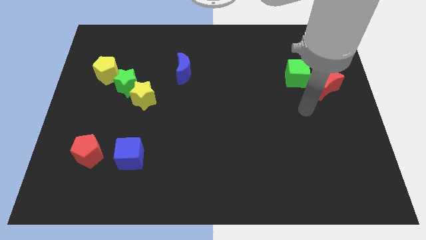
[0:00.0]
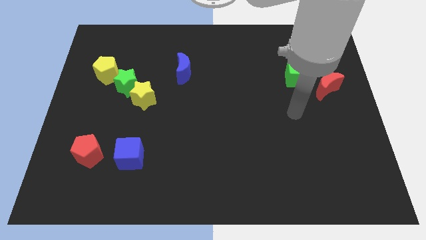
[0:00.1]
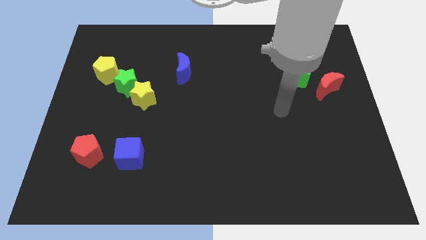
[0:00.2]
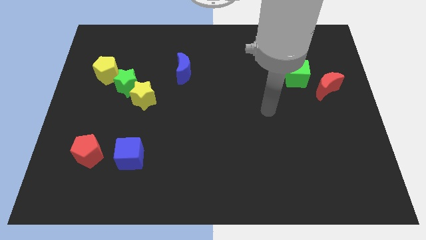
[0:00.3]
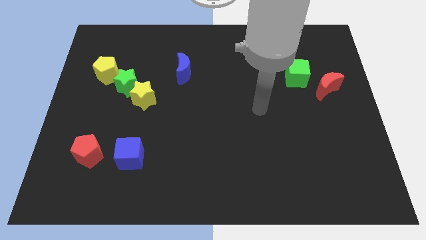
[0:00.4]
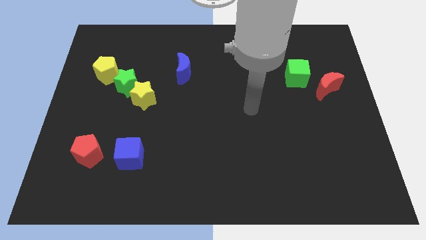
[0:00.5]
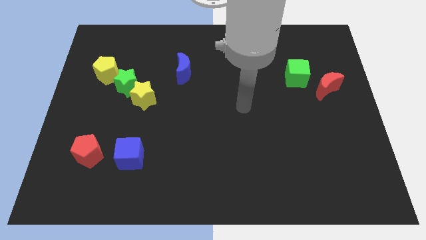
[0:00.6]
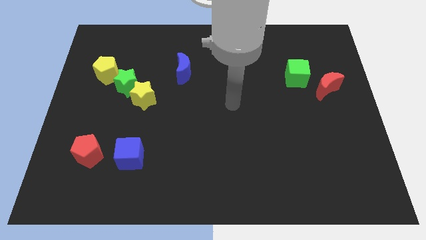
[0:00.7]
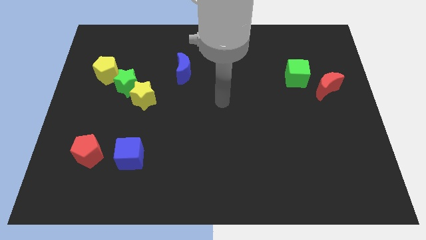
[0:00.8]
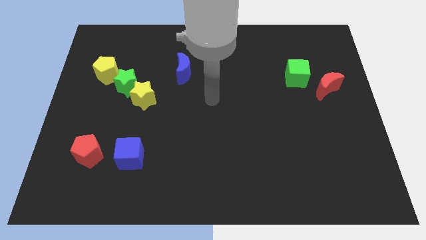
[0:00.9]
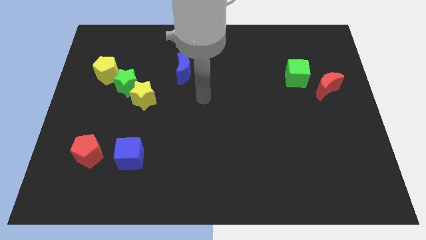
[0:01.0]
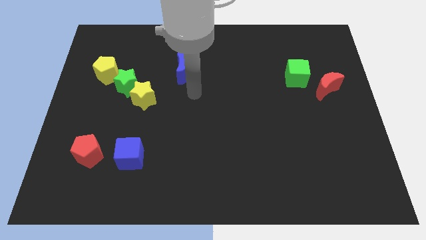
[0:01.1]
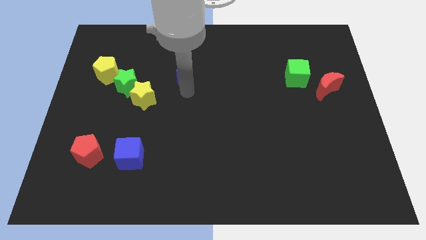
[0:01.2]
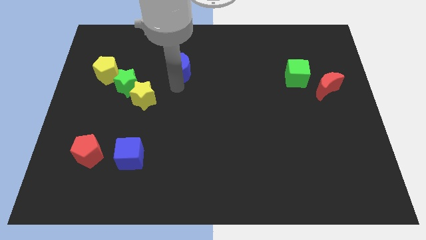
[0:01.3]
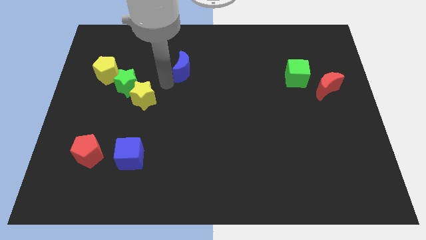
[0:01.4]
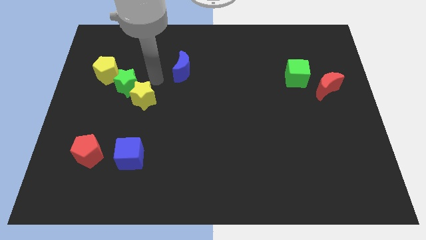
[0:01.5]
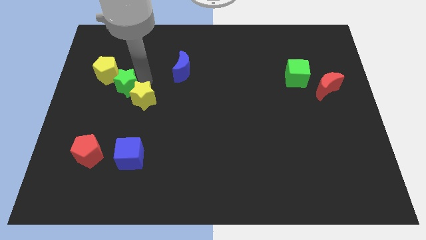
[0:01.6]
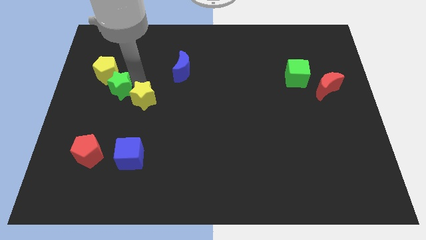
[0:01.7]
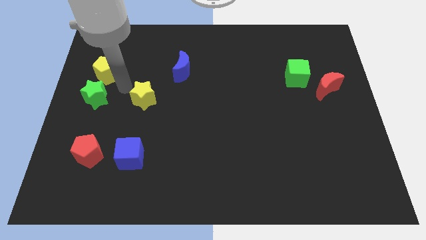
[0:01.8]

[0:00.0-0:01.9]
separate the yellow star from the green star

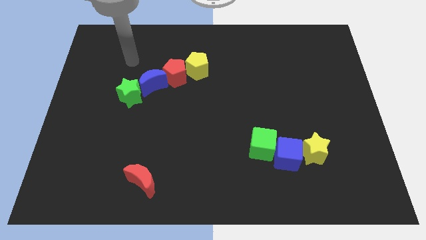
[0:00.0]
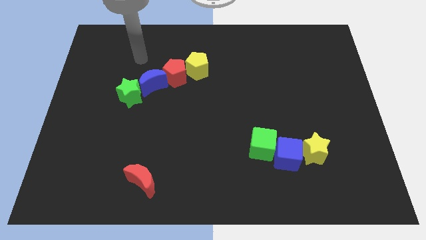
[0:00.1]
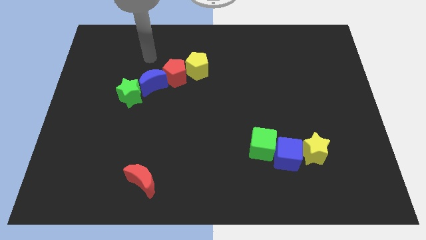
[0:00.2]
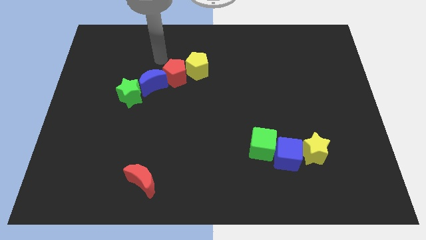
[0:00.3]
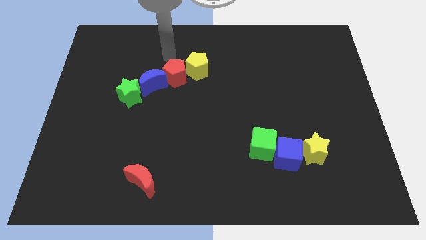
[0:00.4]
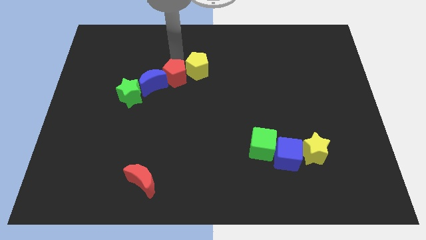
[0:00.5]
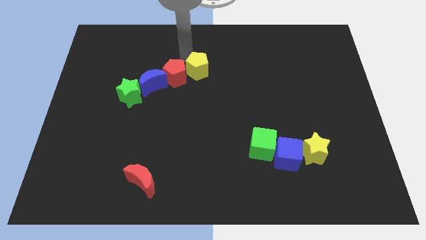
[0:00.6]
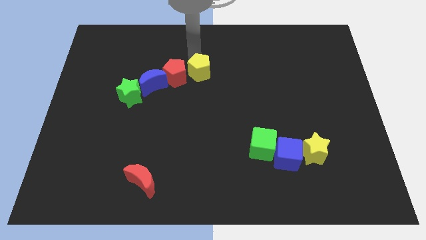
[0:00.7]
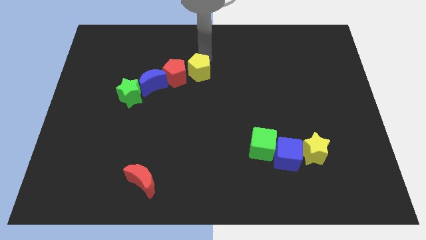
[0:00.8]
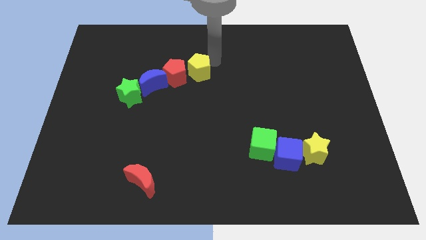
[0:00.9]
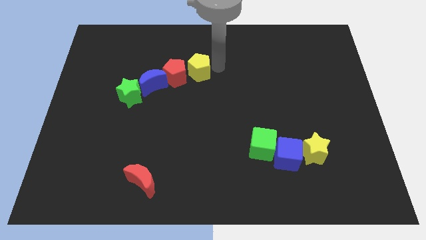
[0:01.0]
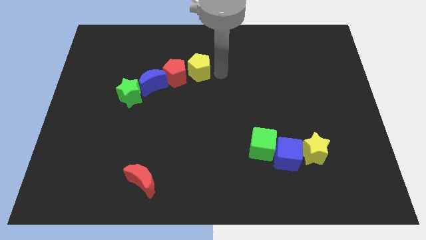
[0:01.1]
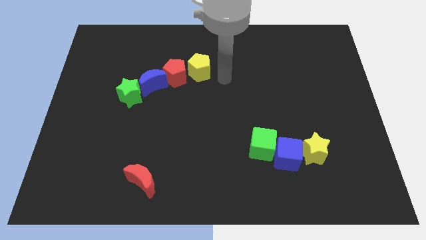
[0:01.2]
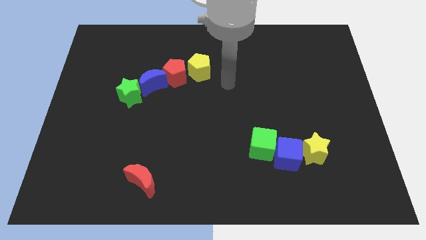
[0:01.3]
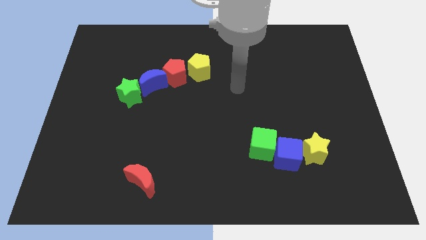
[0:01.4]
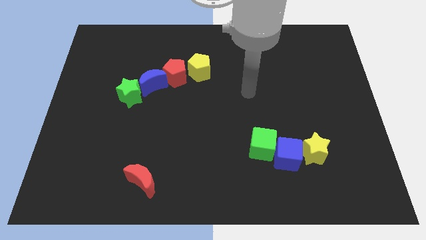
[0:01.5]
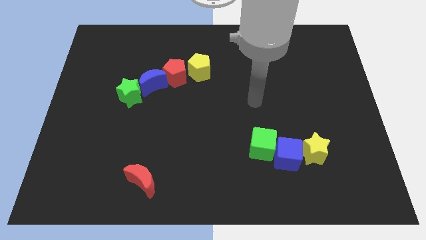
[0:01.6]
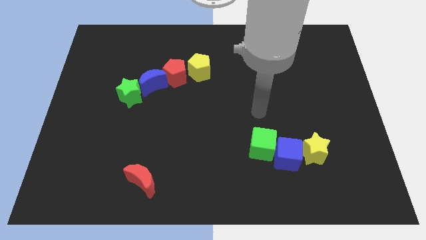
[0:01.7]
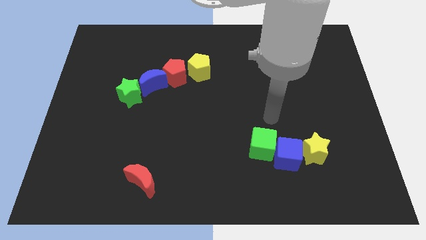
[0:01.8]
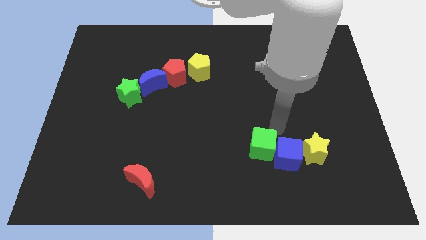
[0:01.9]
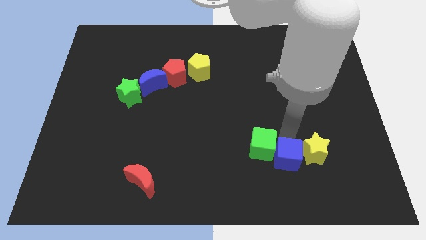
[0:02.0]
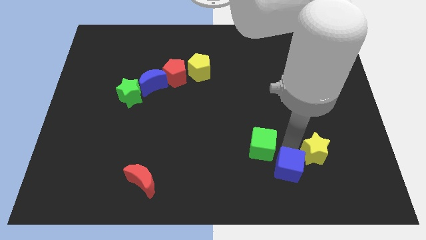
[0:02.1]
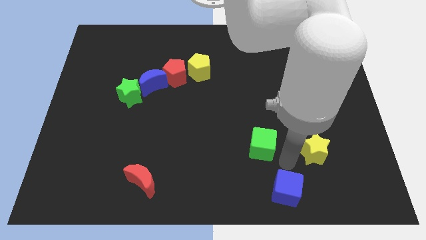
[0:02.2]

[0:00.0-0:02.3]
pull the green cube apart from the blue cube

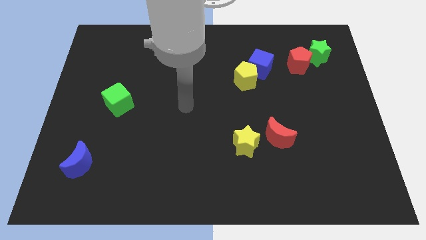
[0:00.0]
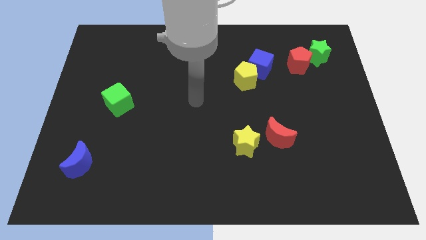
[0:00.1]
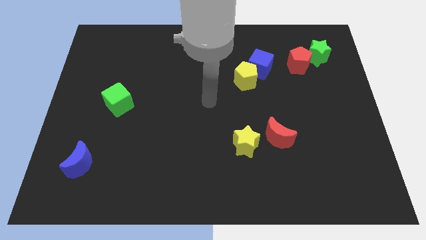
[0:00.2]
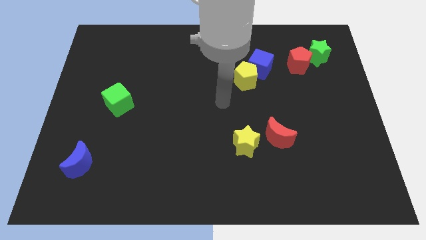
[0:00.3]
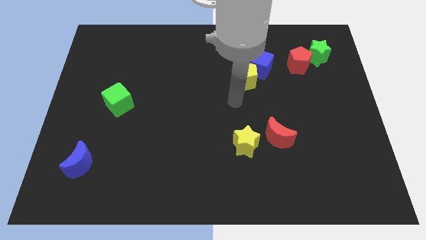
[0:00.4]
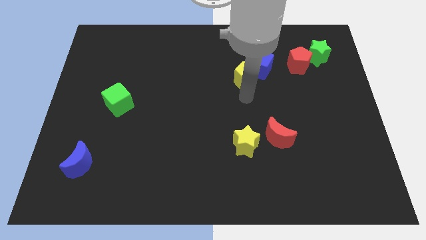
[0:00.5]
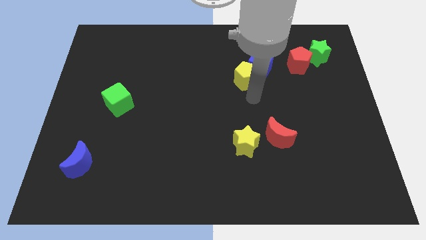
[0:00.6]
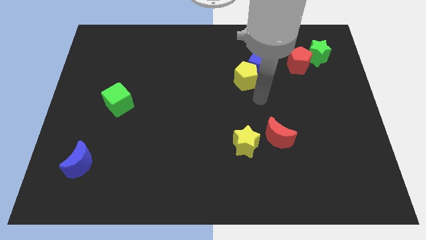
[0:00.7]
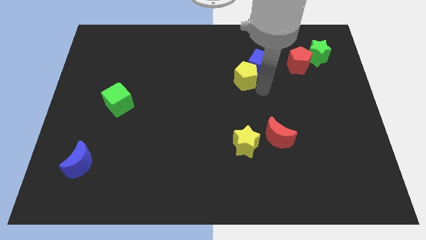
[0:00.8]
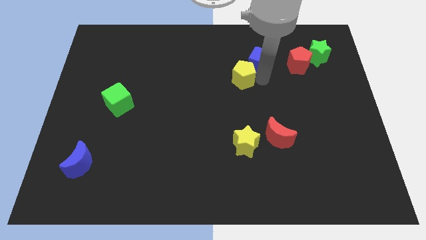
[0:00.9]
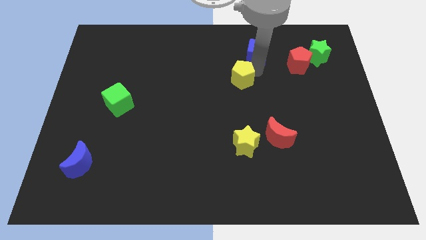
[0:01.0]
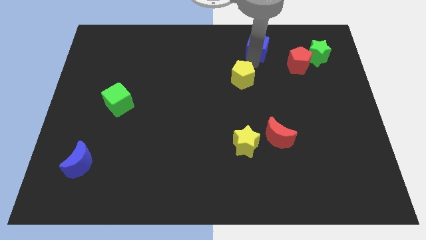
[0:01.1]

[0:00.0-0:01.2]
move the yellow pentagon away from the blue cube

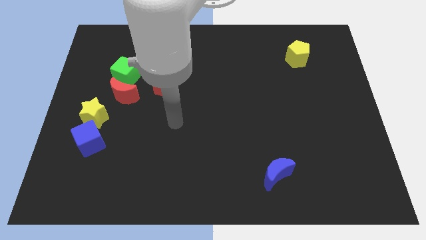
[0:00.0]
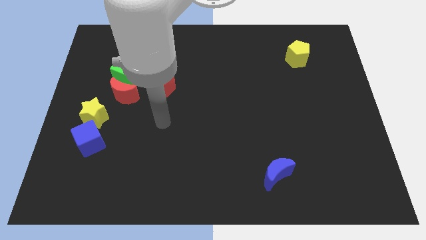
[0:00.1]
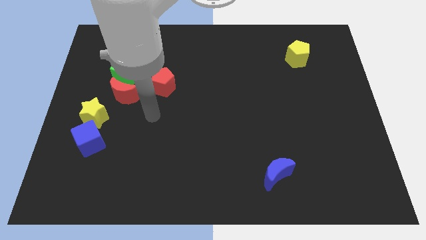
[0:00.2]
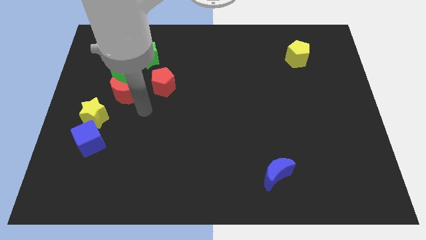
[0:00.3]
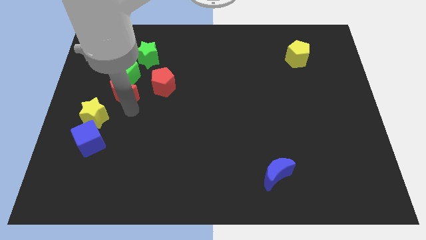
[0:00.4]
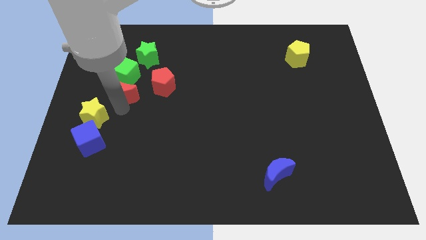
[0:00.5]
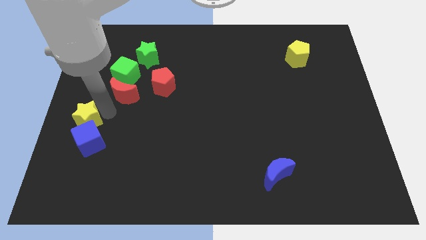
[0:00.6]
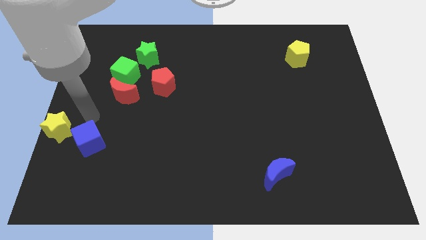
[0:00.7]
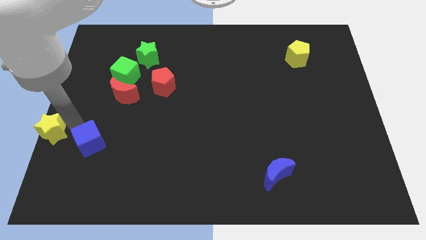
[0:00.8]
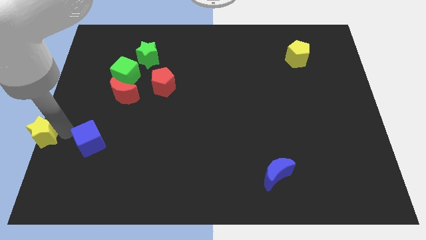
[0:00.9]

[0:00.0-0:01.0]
separate the blue cube from the yellow star

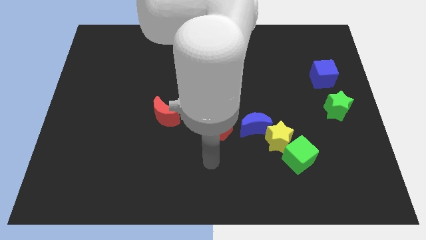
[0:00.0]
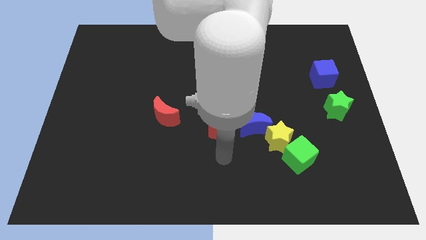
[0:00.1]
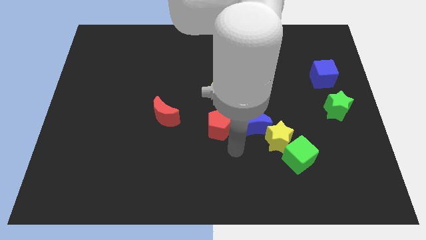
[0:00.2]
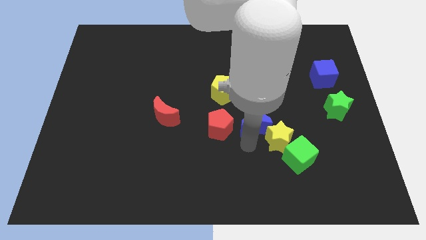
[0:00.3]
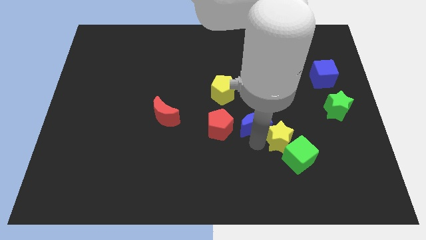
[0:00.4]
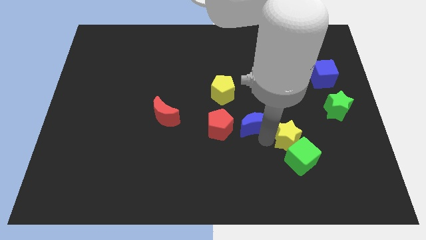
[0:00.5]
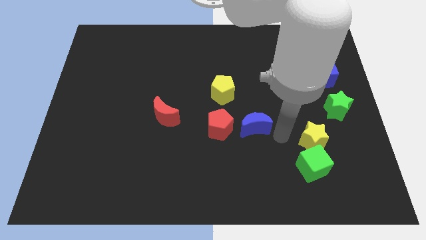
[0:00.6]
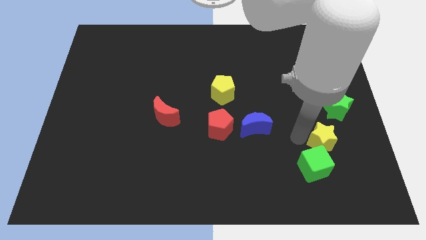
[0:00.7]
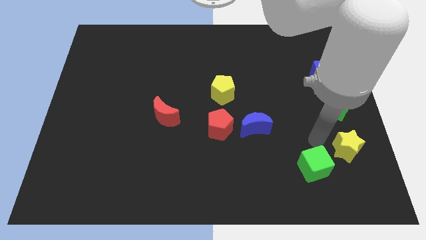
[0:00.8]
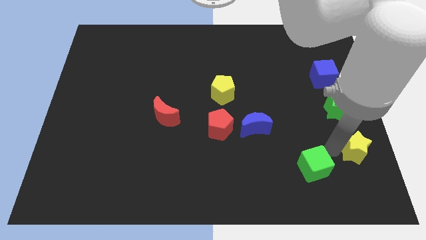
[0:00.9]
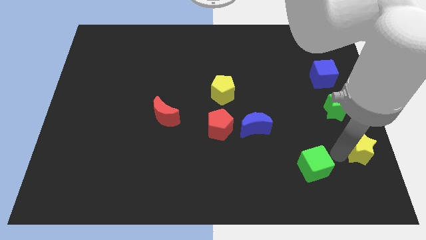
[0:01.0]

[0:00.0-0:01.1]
move the green cube away from the yellow star

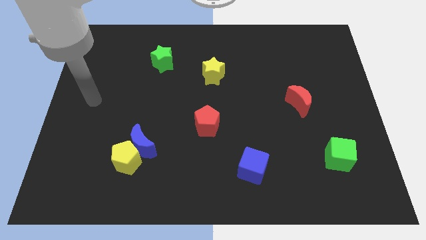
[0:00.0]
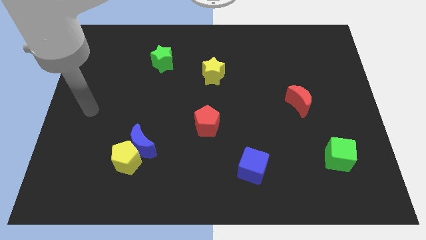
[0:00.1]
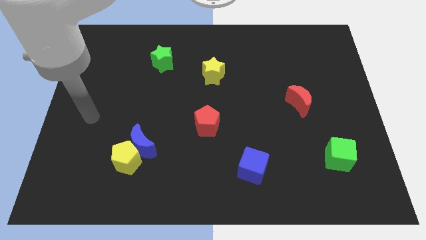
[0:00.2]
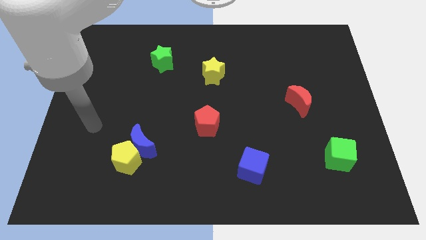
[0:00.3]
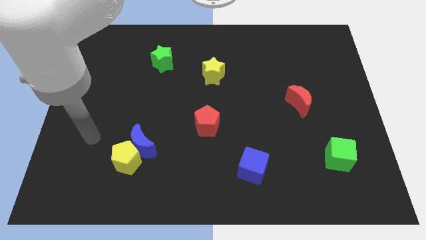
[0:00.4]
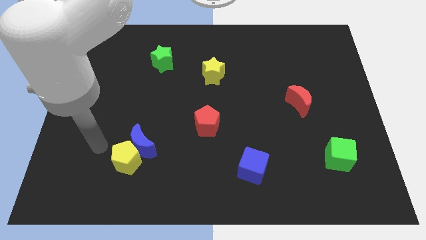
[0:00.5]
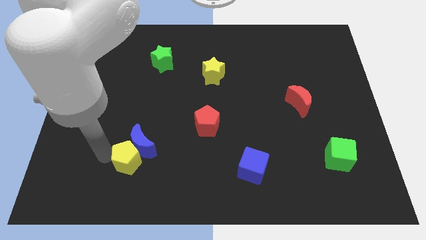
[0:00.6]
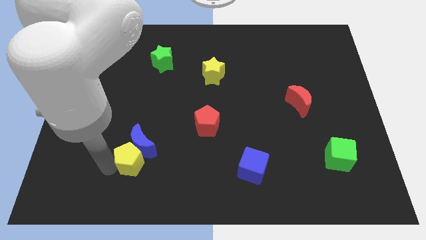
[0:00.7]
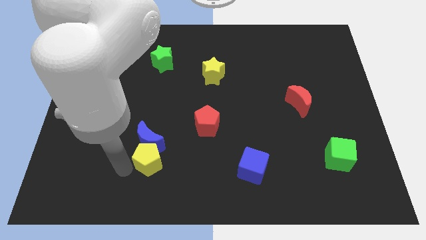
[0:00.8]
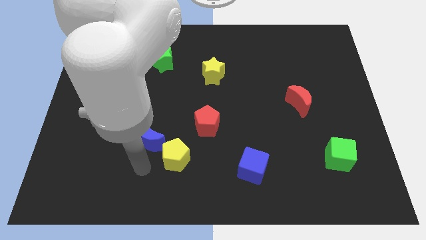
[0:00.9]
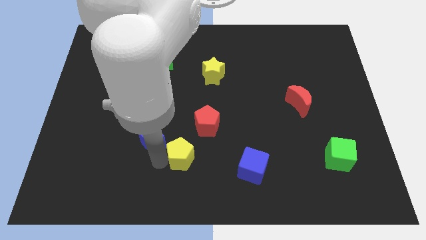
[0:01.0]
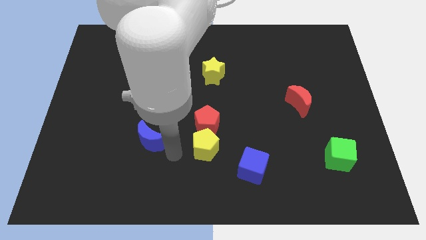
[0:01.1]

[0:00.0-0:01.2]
pull the blue moon apart from the yellow pentagon

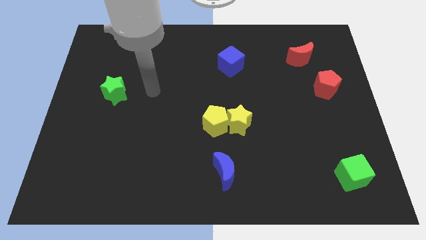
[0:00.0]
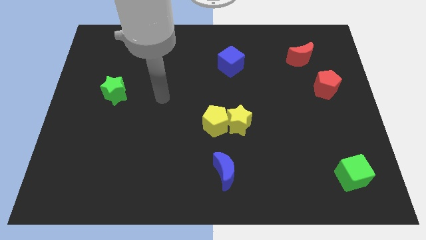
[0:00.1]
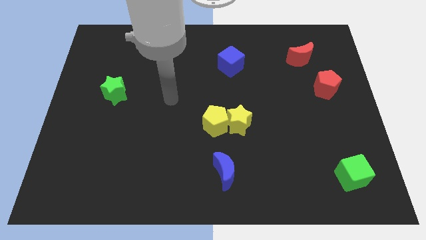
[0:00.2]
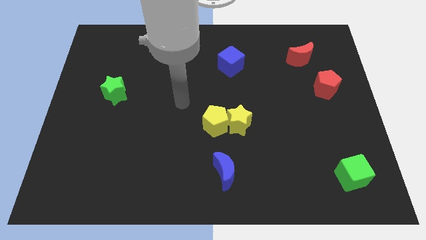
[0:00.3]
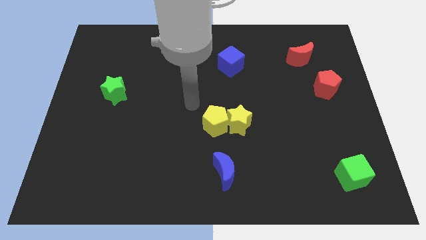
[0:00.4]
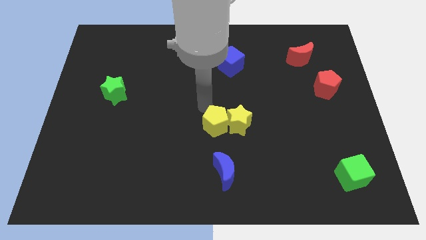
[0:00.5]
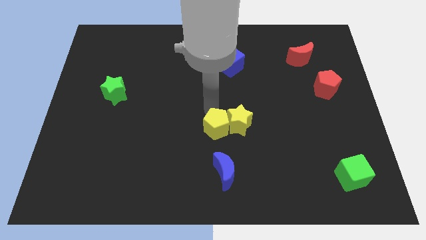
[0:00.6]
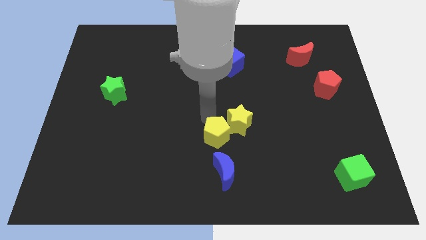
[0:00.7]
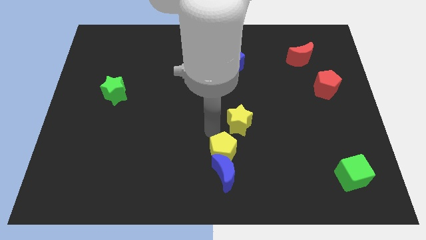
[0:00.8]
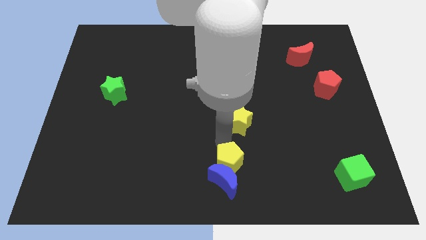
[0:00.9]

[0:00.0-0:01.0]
move the yellow star away from the yellow pentagon
